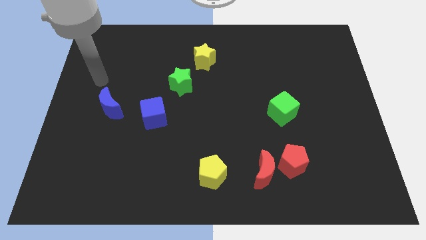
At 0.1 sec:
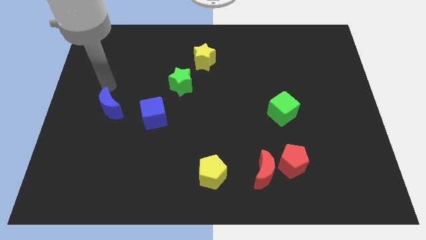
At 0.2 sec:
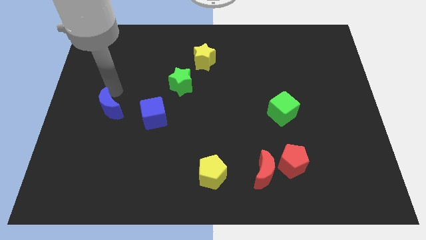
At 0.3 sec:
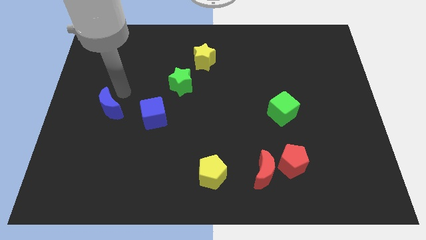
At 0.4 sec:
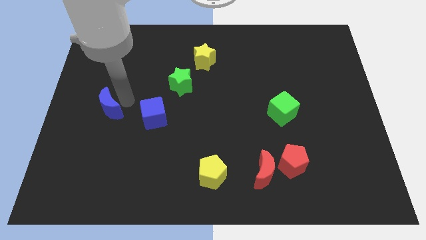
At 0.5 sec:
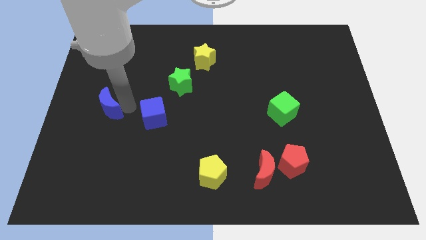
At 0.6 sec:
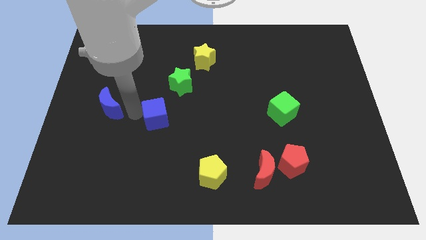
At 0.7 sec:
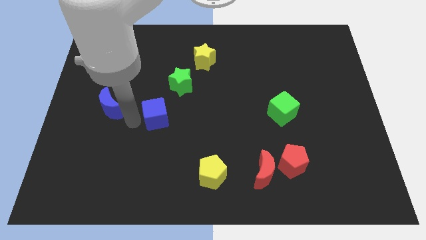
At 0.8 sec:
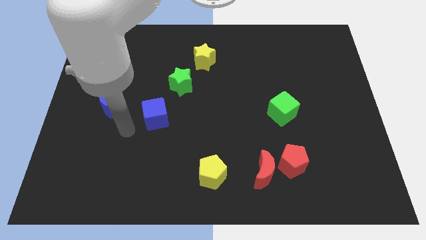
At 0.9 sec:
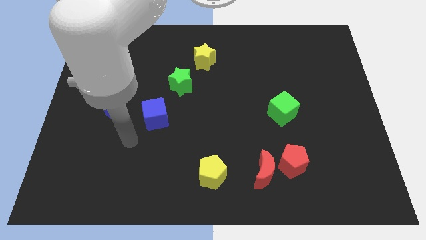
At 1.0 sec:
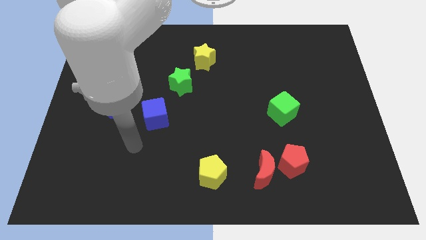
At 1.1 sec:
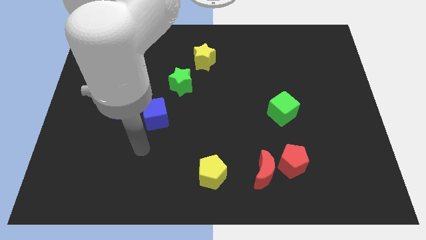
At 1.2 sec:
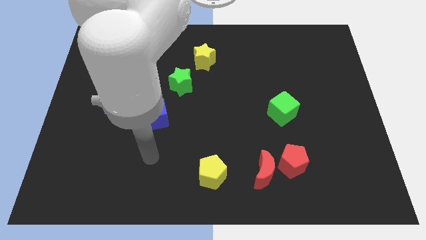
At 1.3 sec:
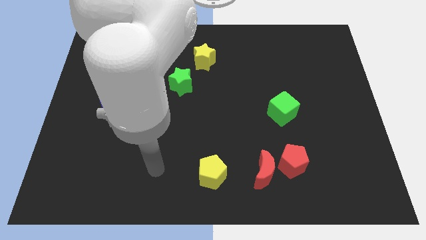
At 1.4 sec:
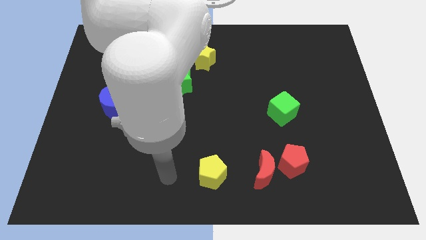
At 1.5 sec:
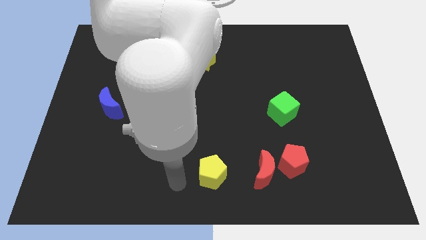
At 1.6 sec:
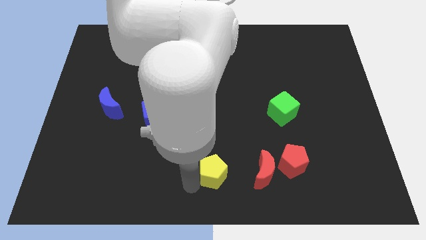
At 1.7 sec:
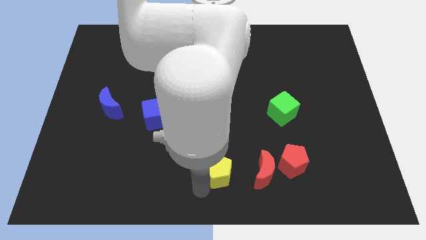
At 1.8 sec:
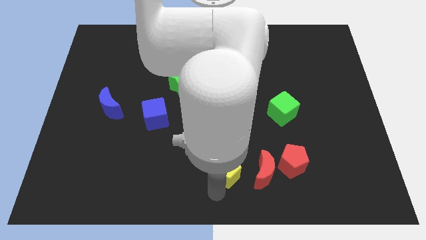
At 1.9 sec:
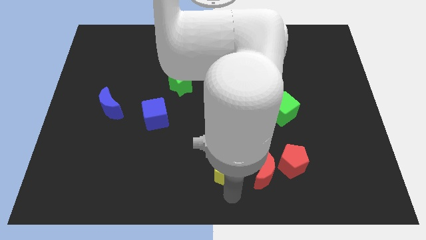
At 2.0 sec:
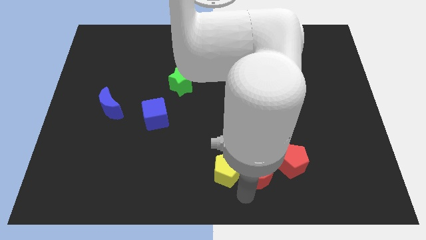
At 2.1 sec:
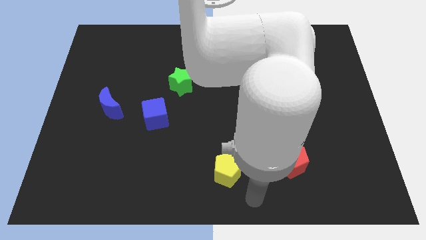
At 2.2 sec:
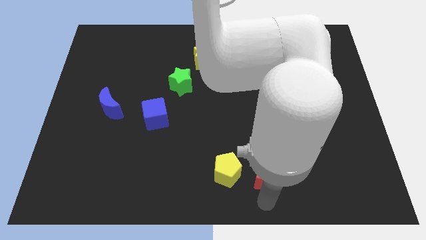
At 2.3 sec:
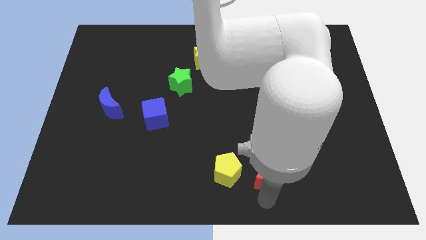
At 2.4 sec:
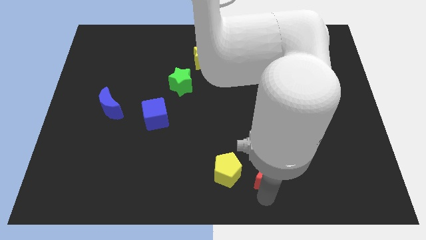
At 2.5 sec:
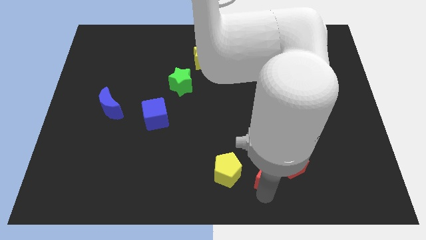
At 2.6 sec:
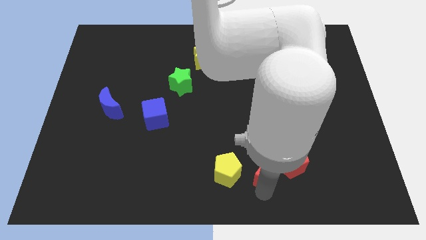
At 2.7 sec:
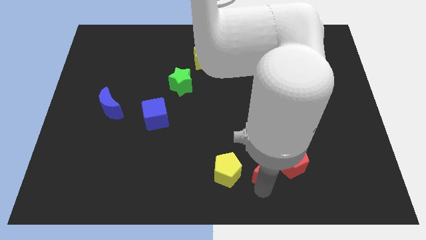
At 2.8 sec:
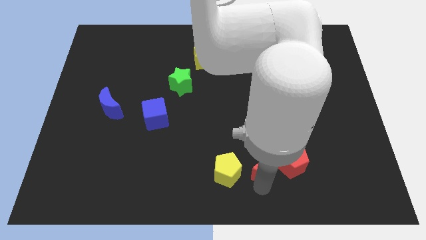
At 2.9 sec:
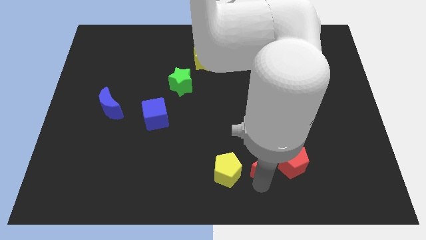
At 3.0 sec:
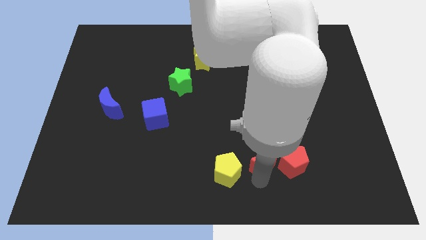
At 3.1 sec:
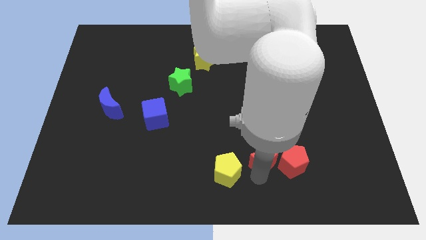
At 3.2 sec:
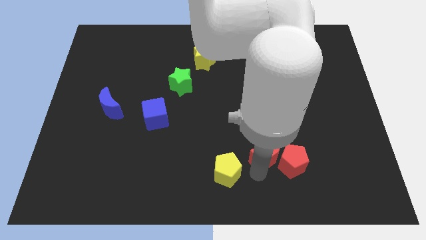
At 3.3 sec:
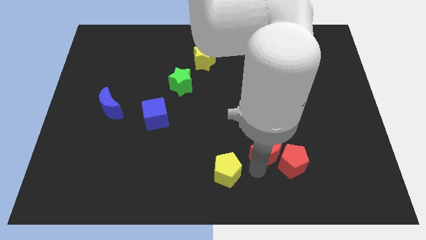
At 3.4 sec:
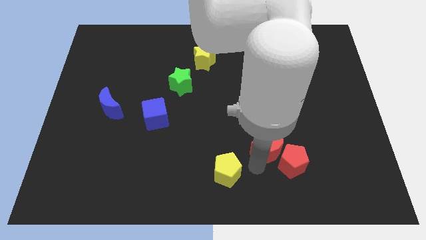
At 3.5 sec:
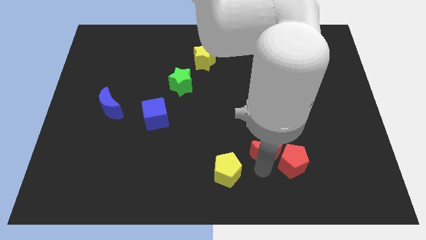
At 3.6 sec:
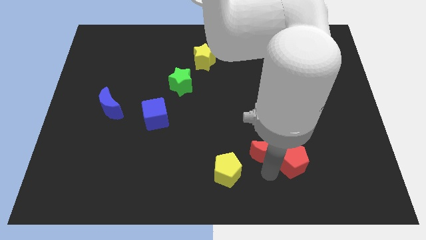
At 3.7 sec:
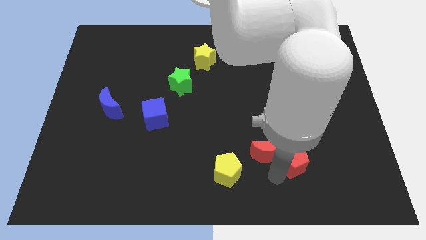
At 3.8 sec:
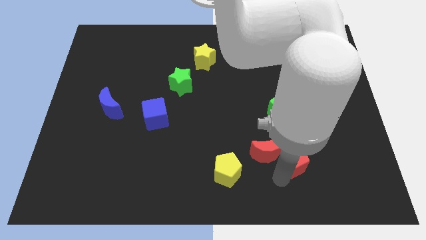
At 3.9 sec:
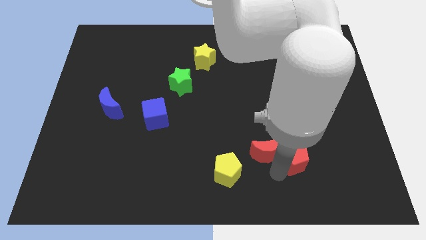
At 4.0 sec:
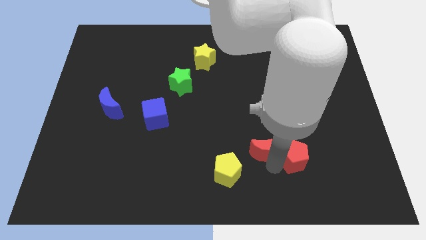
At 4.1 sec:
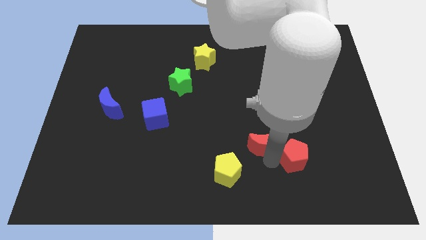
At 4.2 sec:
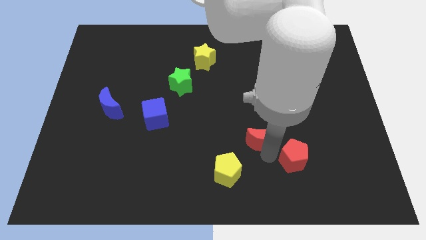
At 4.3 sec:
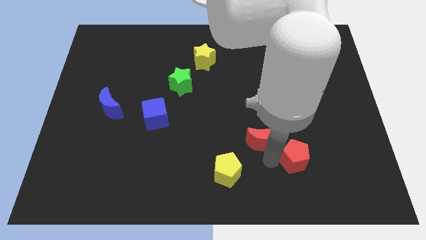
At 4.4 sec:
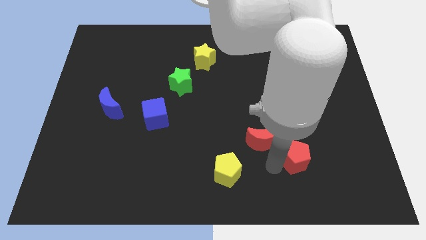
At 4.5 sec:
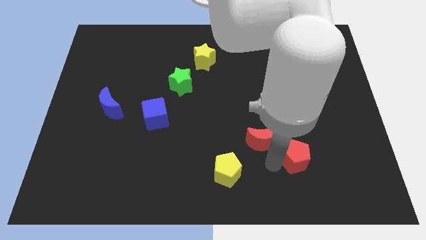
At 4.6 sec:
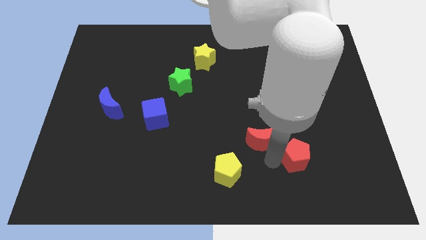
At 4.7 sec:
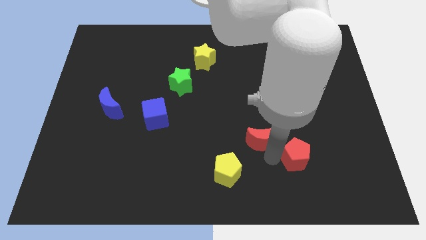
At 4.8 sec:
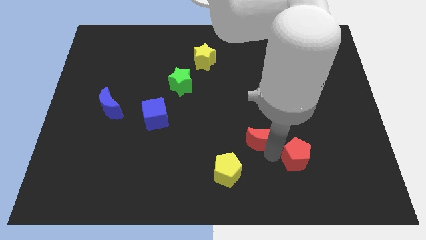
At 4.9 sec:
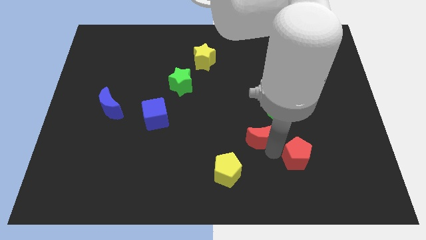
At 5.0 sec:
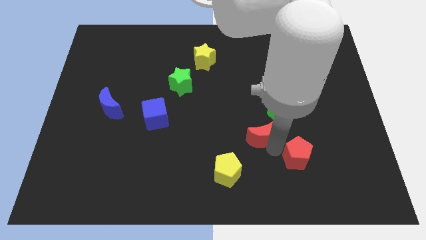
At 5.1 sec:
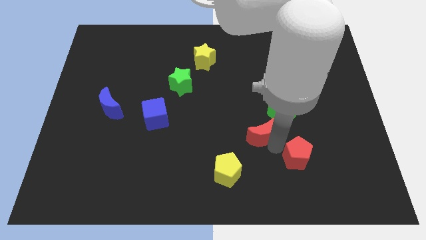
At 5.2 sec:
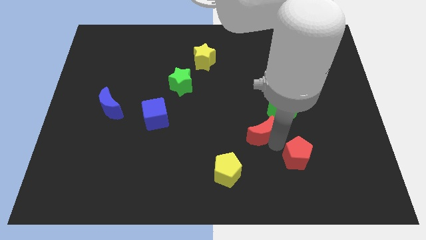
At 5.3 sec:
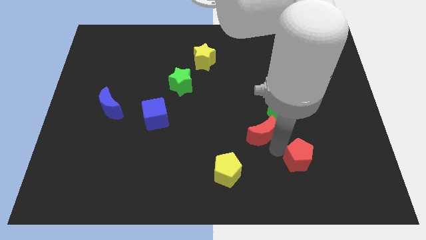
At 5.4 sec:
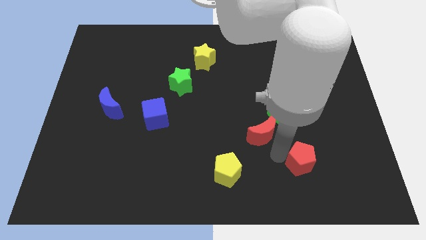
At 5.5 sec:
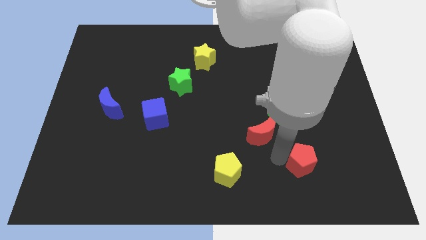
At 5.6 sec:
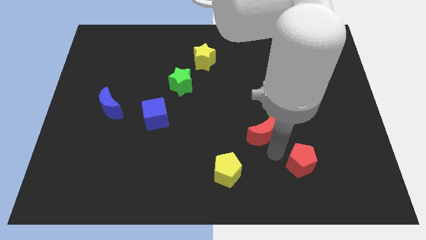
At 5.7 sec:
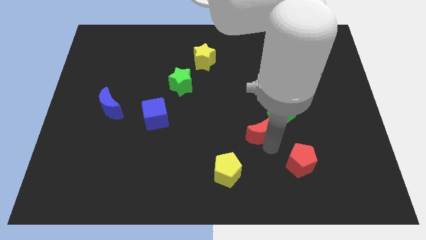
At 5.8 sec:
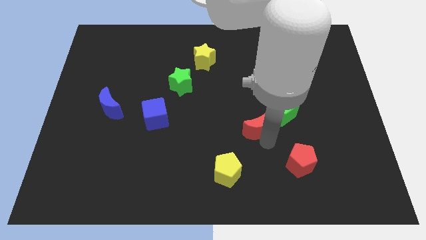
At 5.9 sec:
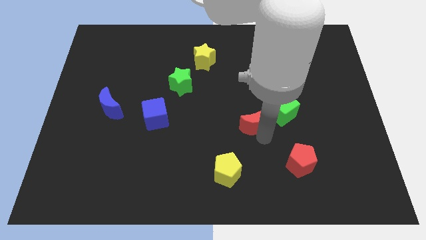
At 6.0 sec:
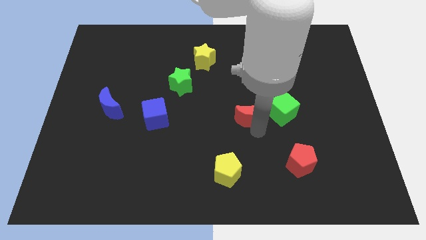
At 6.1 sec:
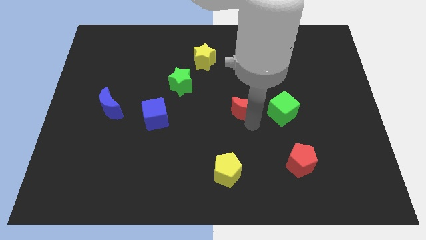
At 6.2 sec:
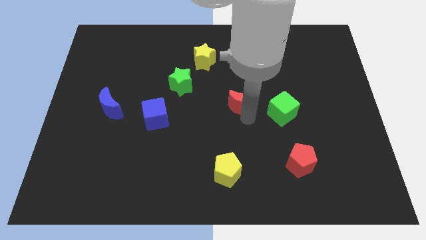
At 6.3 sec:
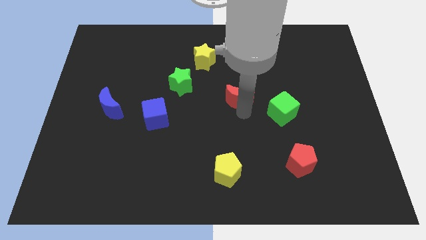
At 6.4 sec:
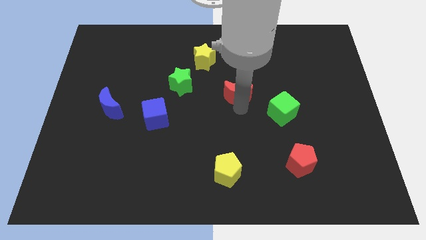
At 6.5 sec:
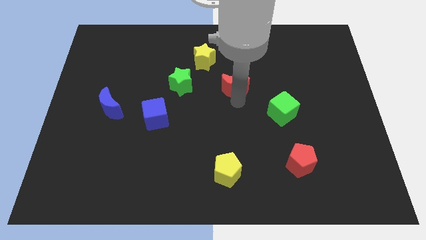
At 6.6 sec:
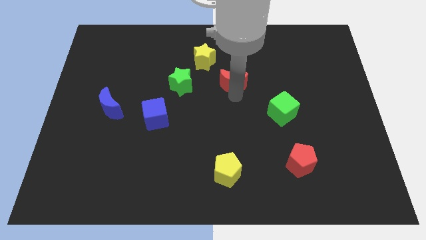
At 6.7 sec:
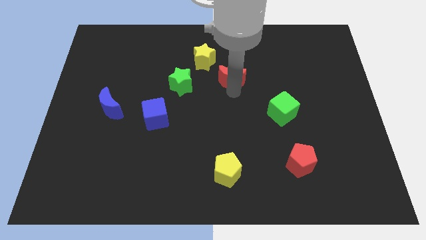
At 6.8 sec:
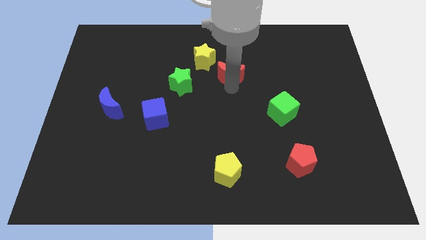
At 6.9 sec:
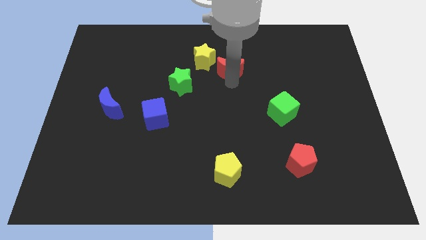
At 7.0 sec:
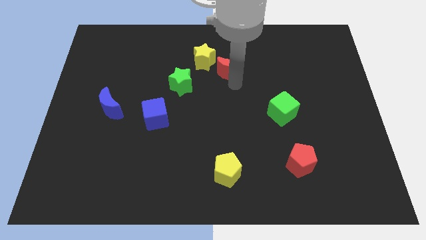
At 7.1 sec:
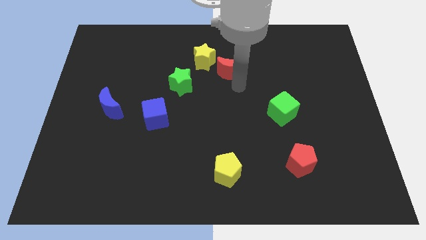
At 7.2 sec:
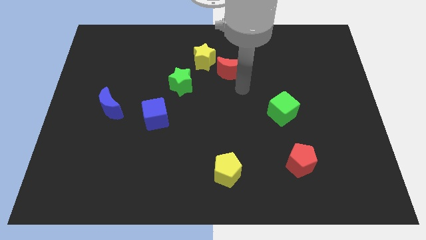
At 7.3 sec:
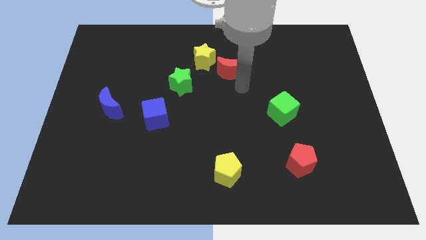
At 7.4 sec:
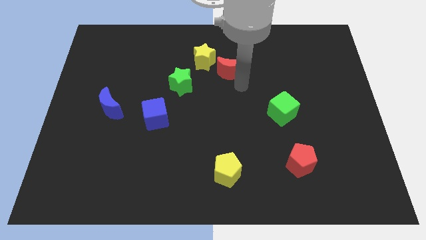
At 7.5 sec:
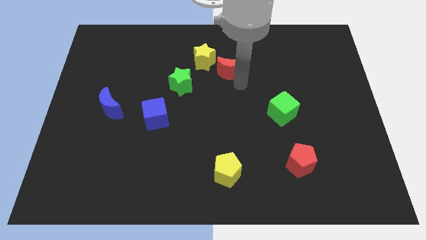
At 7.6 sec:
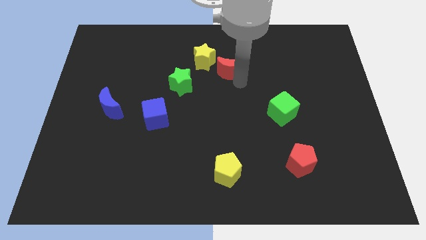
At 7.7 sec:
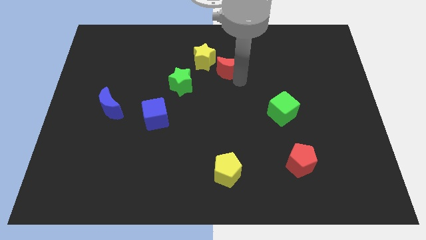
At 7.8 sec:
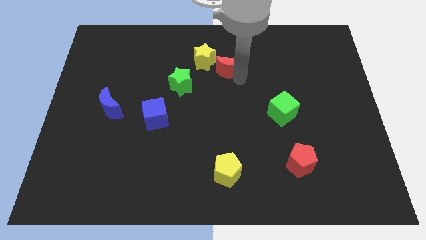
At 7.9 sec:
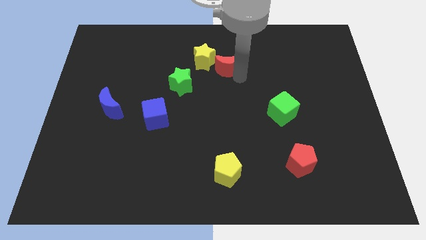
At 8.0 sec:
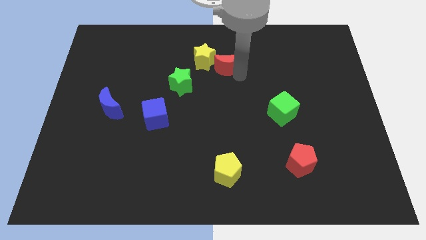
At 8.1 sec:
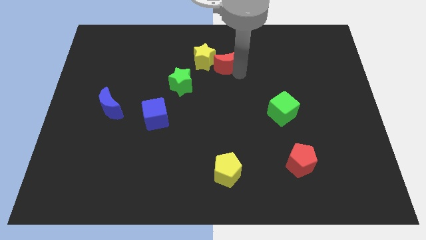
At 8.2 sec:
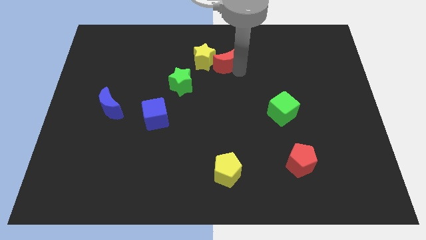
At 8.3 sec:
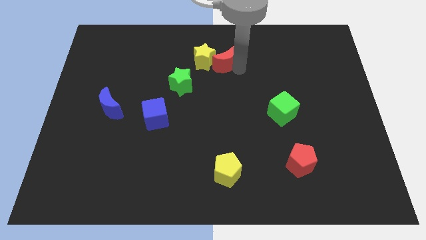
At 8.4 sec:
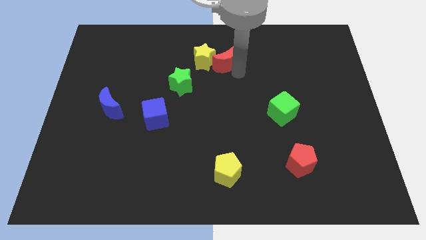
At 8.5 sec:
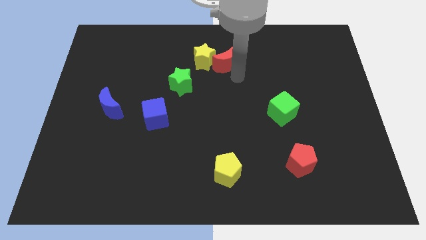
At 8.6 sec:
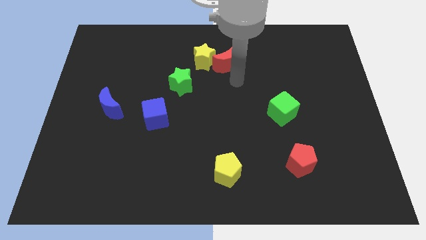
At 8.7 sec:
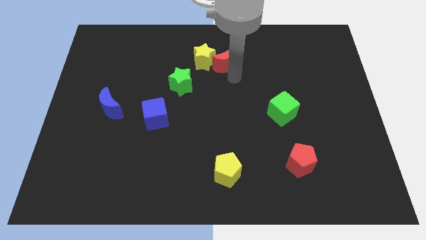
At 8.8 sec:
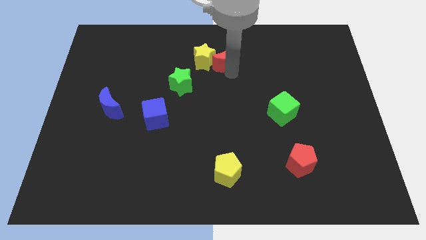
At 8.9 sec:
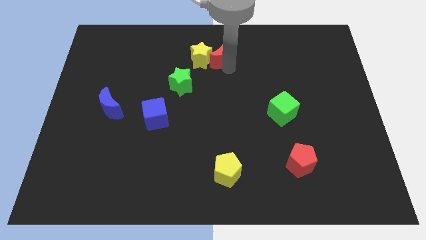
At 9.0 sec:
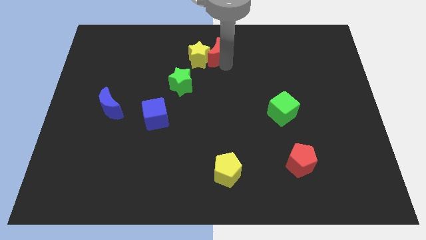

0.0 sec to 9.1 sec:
move the red moon to the towards your base
